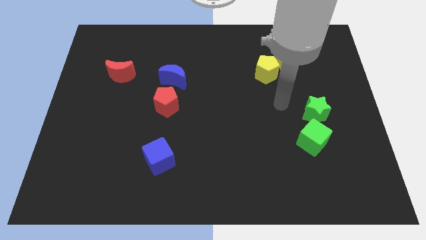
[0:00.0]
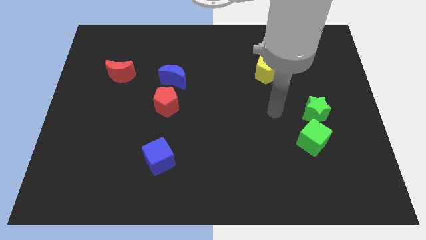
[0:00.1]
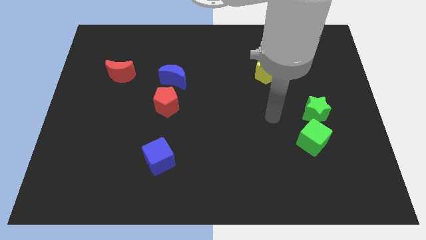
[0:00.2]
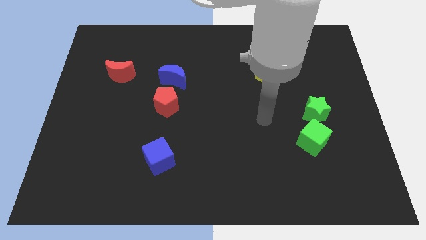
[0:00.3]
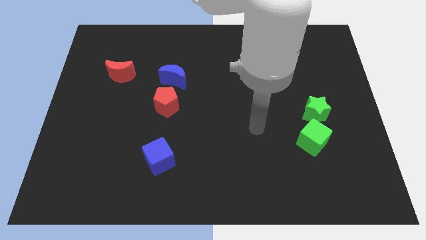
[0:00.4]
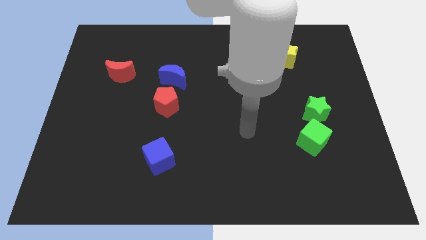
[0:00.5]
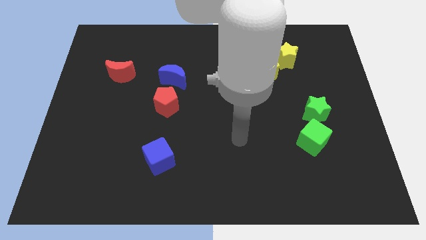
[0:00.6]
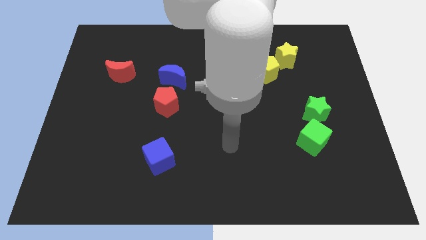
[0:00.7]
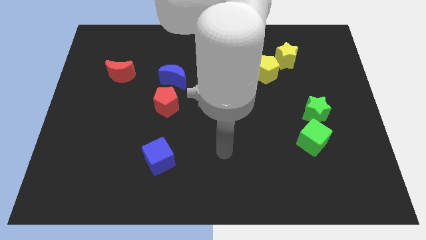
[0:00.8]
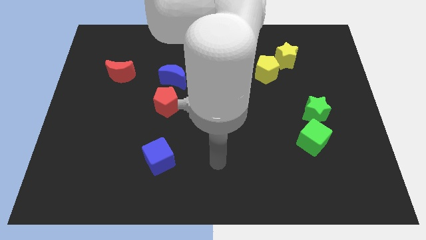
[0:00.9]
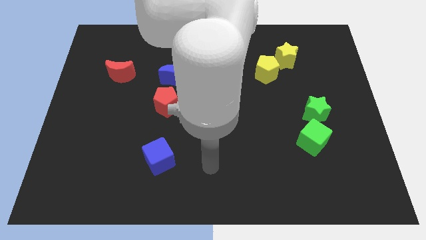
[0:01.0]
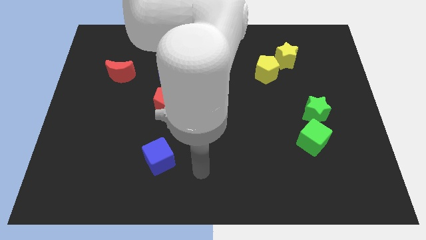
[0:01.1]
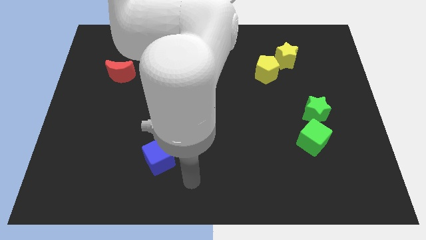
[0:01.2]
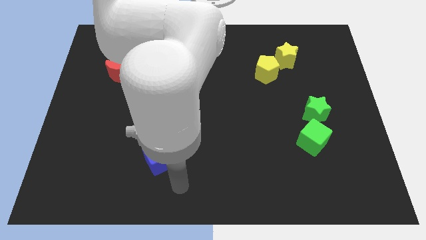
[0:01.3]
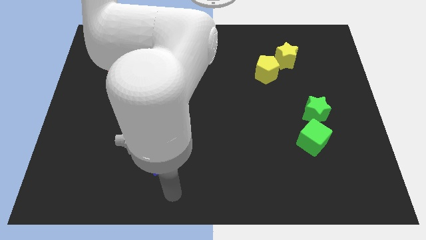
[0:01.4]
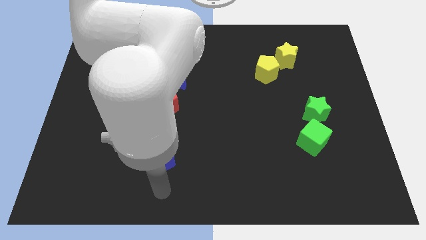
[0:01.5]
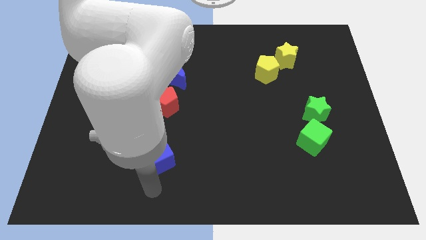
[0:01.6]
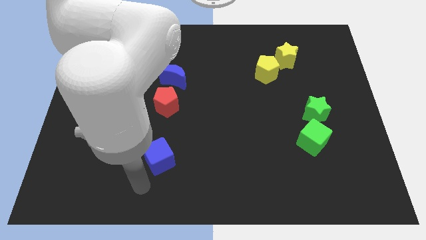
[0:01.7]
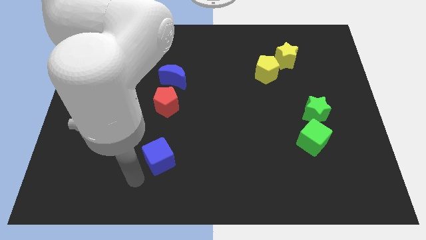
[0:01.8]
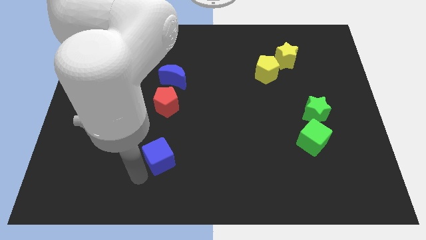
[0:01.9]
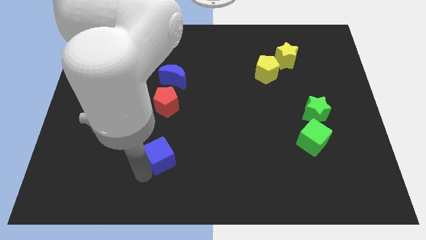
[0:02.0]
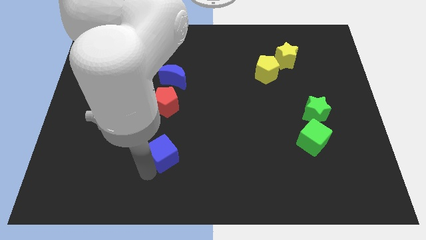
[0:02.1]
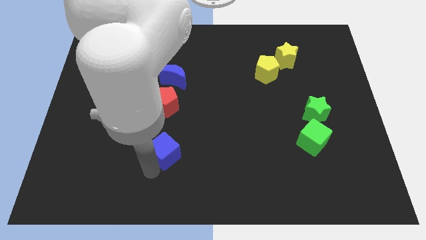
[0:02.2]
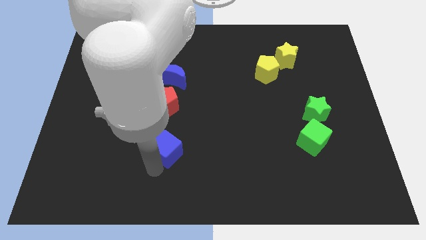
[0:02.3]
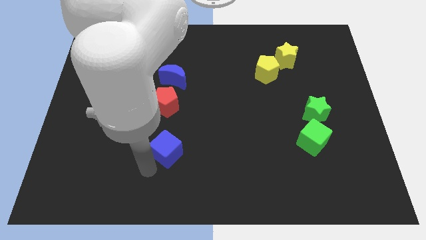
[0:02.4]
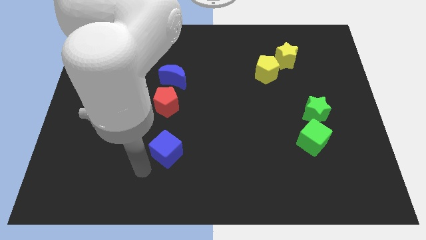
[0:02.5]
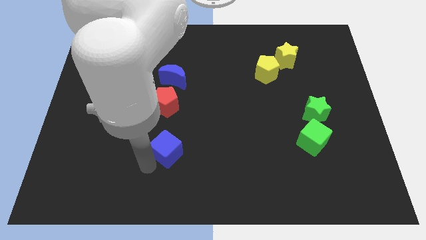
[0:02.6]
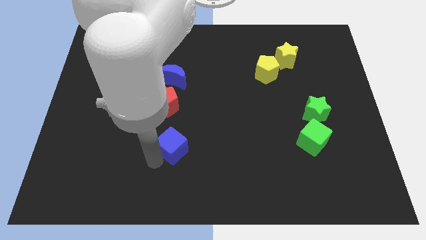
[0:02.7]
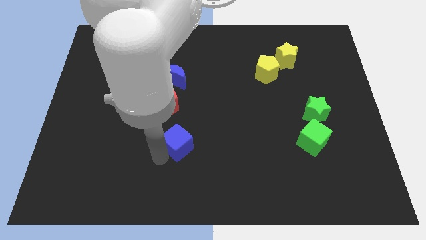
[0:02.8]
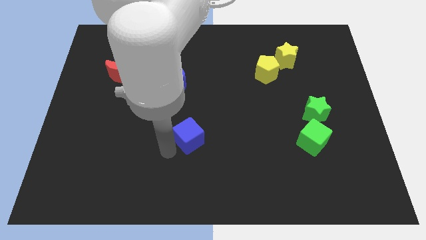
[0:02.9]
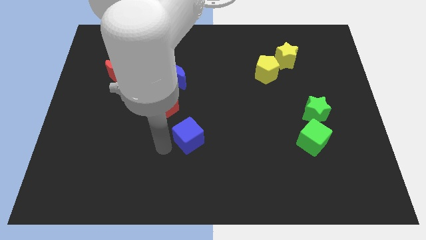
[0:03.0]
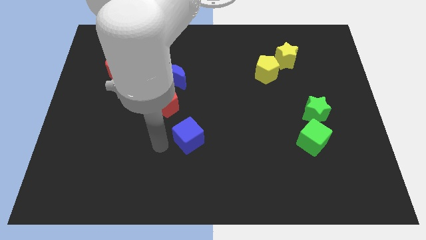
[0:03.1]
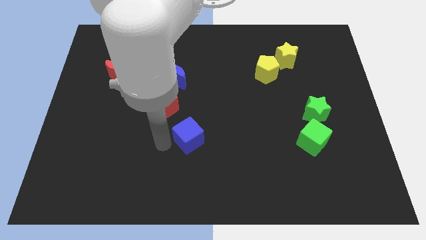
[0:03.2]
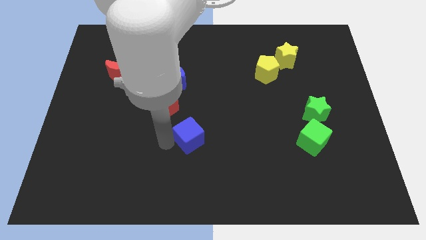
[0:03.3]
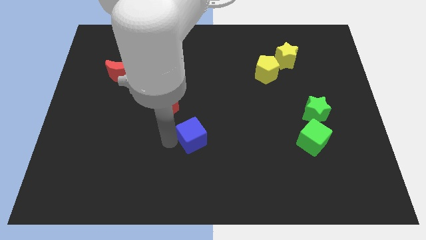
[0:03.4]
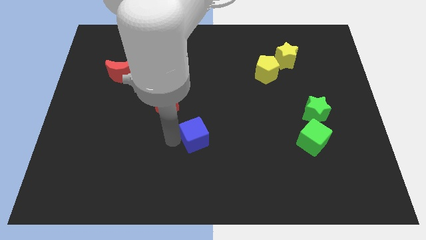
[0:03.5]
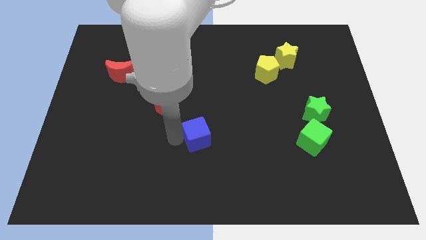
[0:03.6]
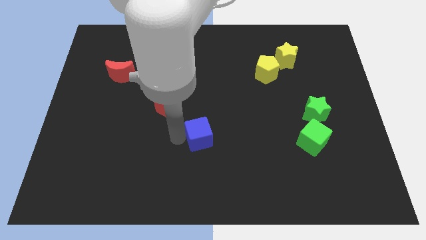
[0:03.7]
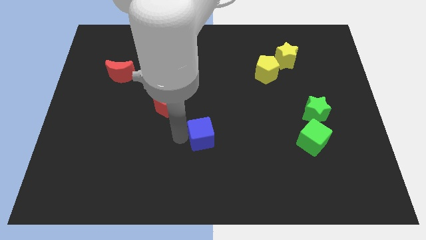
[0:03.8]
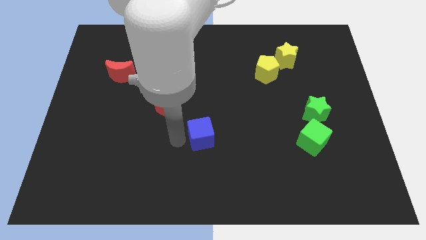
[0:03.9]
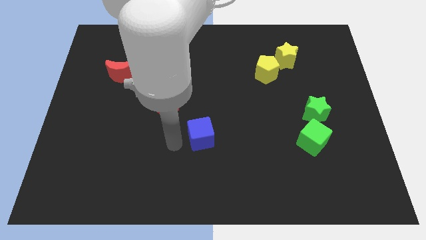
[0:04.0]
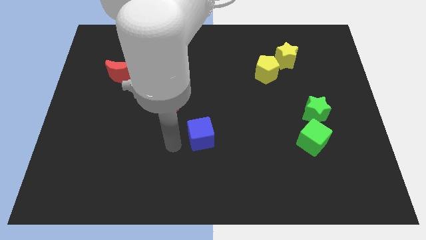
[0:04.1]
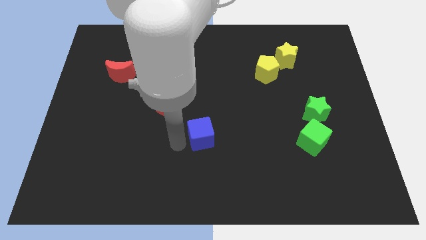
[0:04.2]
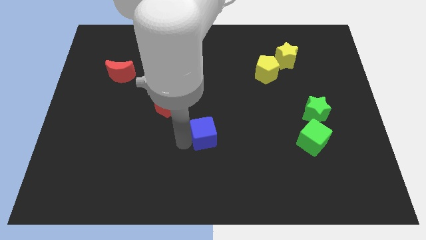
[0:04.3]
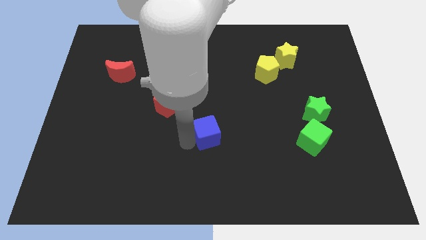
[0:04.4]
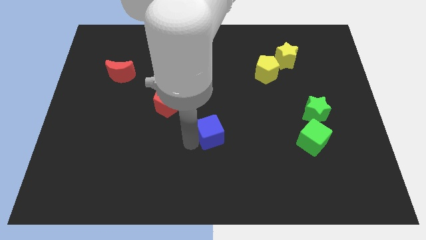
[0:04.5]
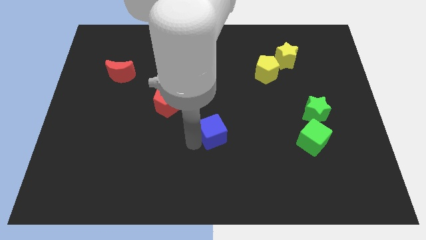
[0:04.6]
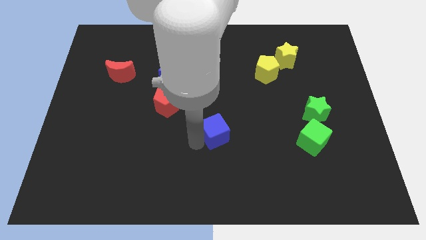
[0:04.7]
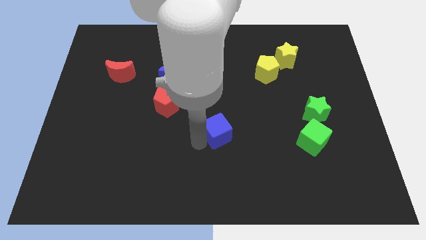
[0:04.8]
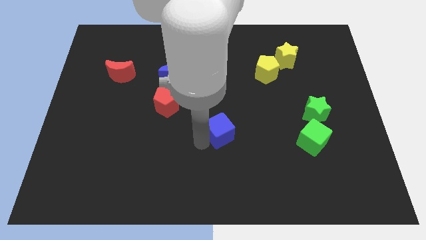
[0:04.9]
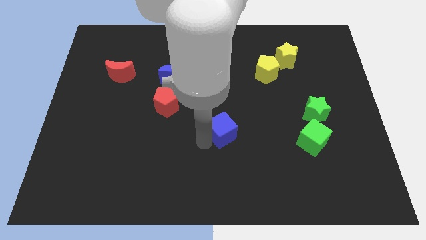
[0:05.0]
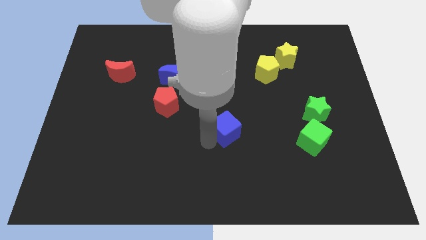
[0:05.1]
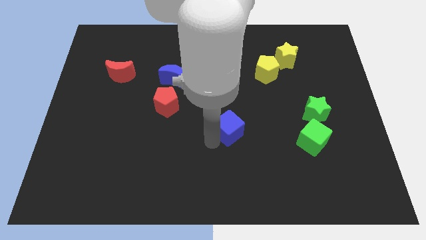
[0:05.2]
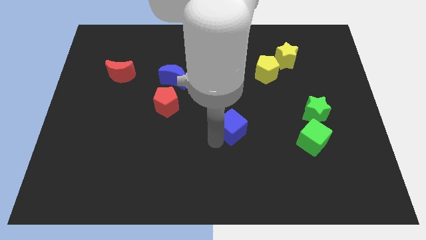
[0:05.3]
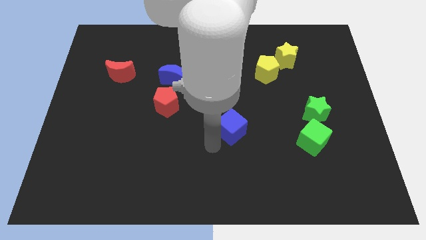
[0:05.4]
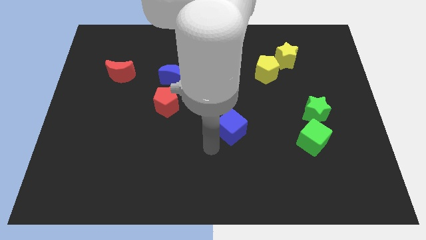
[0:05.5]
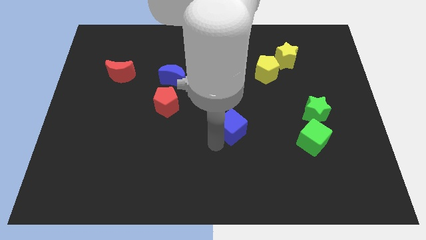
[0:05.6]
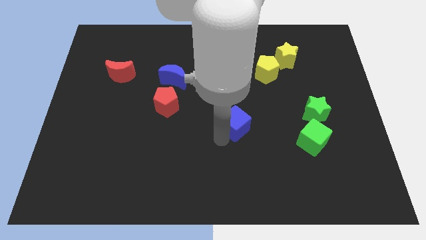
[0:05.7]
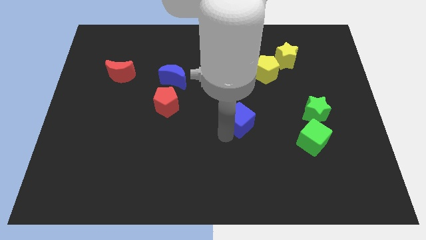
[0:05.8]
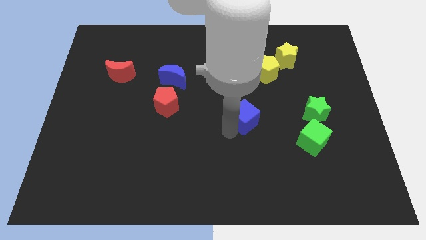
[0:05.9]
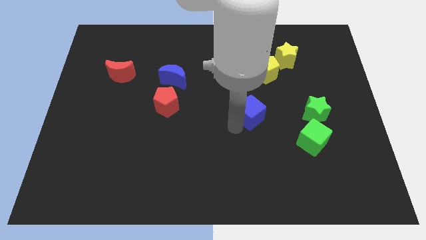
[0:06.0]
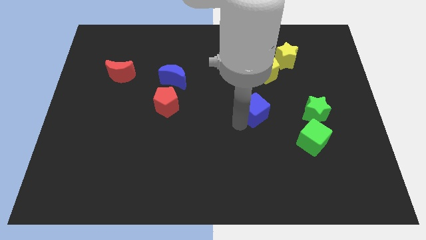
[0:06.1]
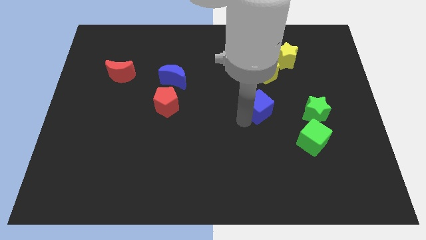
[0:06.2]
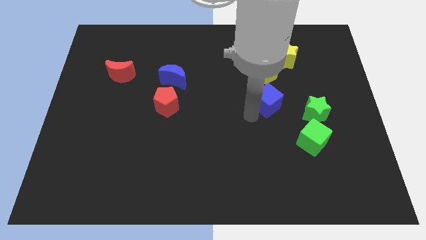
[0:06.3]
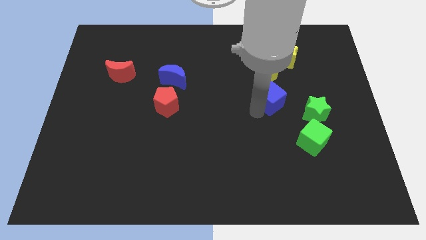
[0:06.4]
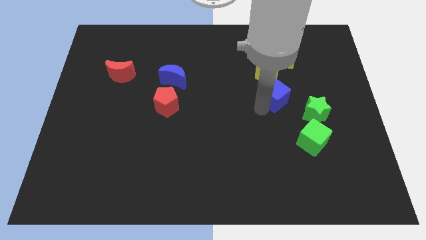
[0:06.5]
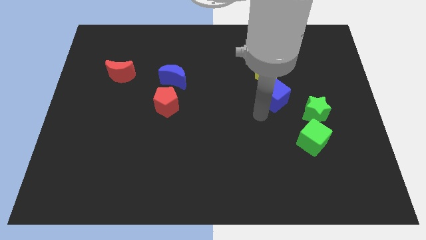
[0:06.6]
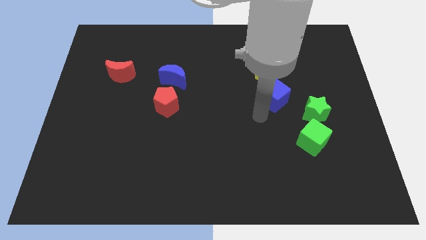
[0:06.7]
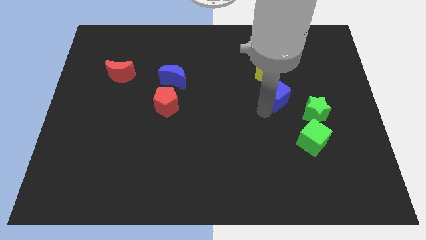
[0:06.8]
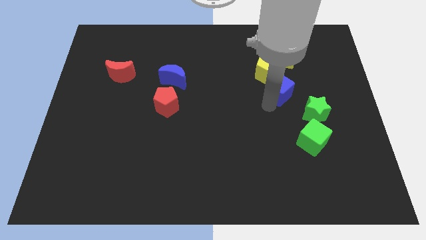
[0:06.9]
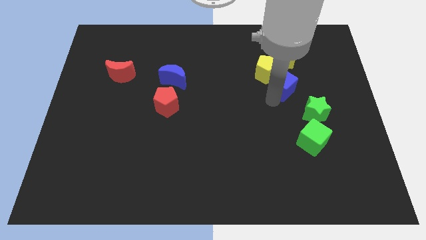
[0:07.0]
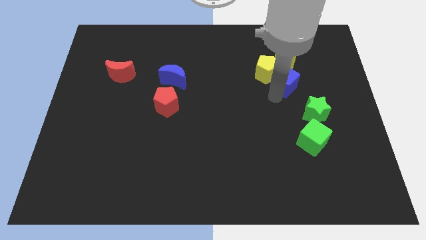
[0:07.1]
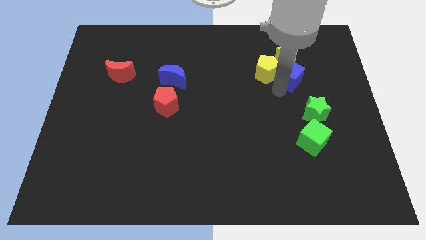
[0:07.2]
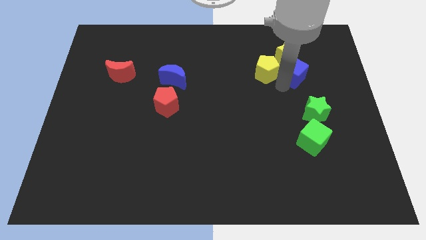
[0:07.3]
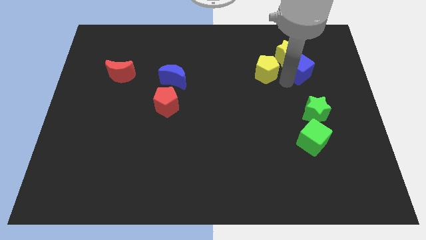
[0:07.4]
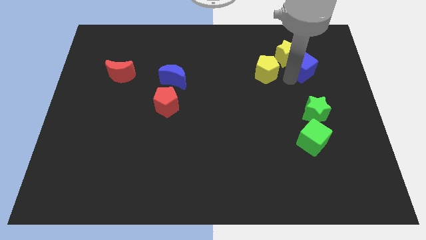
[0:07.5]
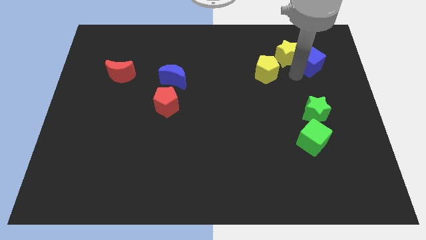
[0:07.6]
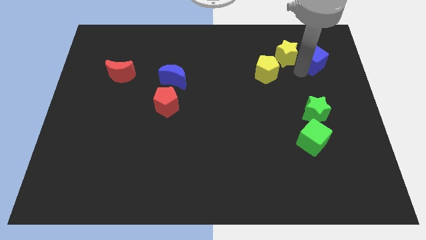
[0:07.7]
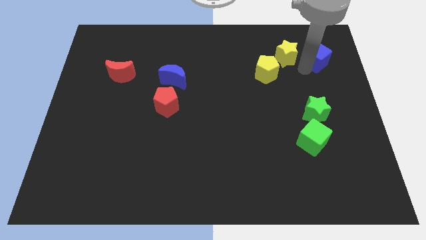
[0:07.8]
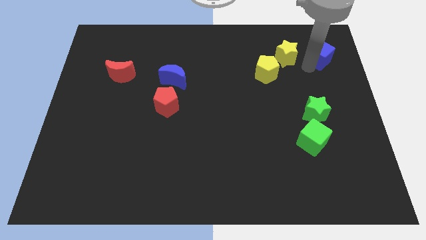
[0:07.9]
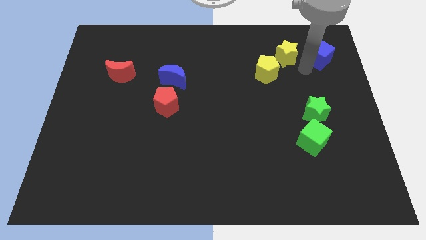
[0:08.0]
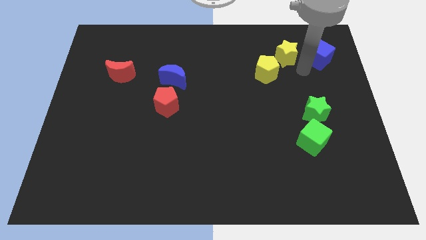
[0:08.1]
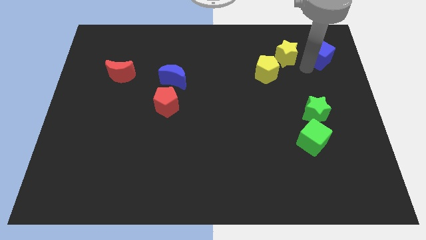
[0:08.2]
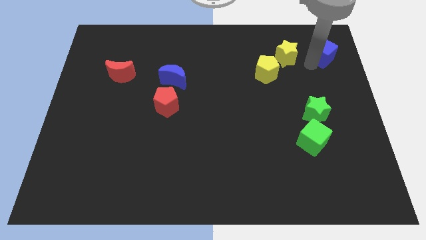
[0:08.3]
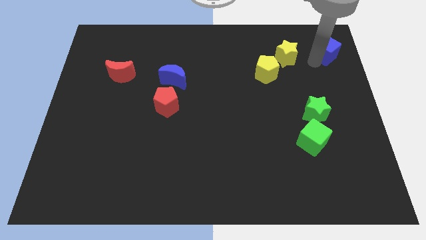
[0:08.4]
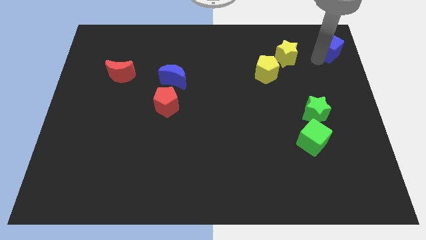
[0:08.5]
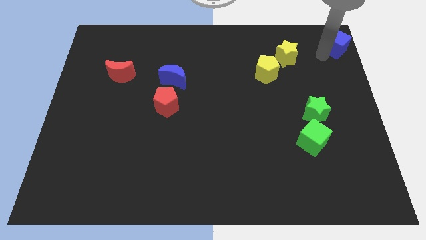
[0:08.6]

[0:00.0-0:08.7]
push the blue cube to the top right corner
